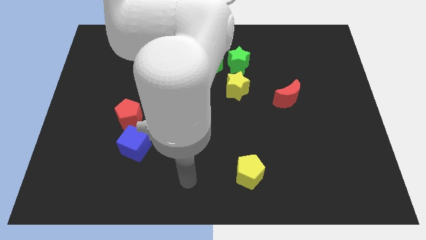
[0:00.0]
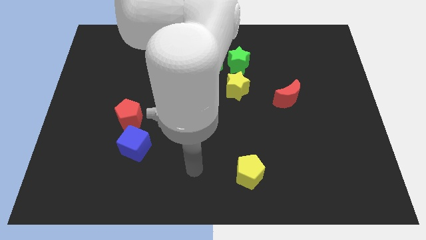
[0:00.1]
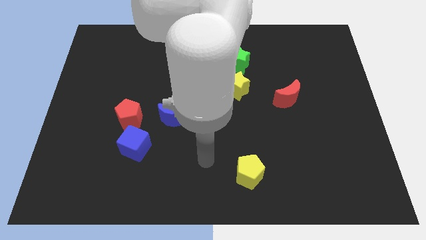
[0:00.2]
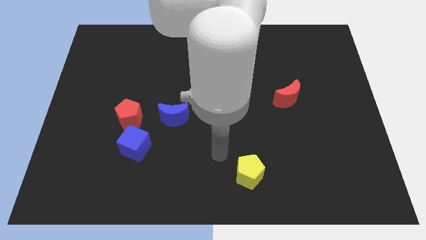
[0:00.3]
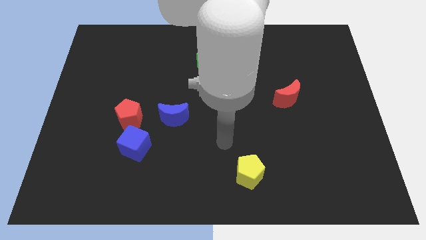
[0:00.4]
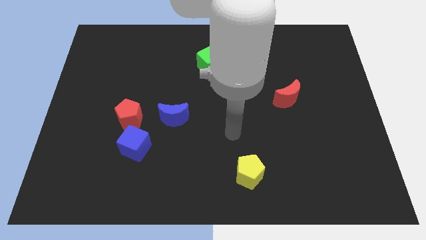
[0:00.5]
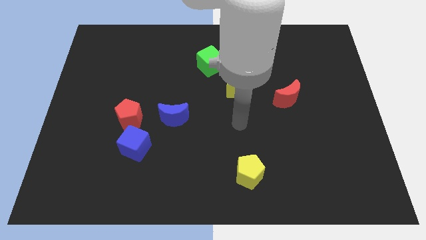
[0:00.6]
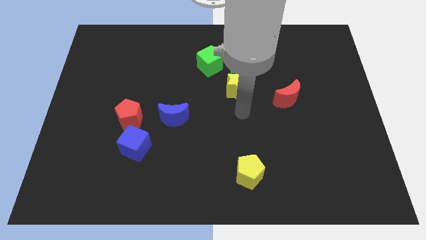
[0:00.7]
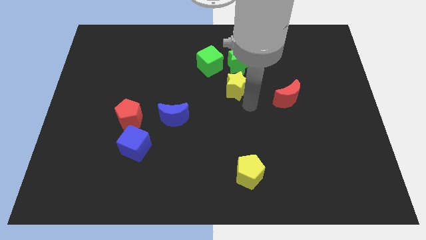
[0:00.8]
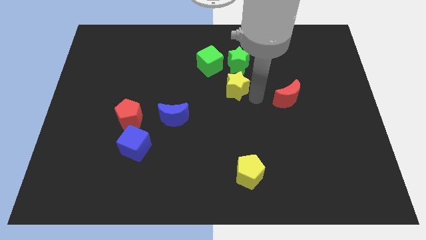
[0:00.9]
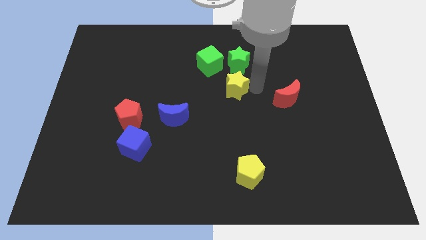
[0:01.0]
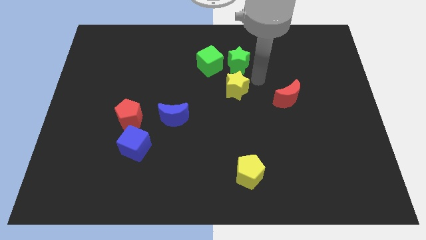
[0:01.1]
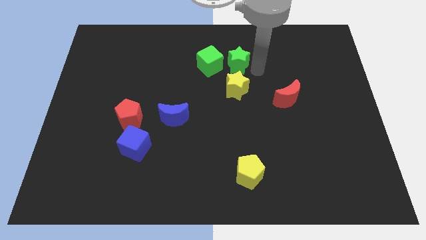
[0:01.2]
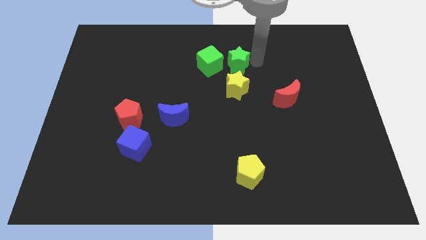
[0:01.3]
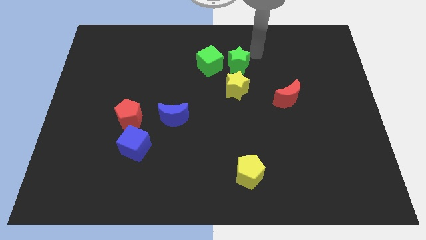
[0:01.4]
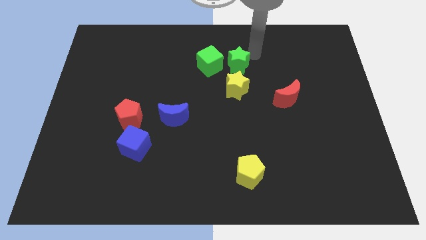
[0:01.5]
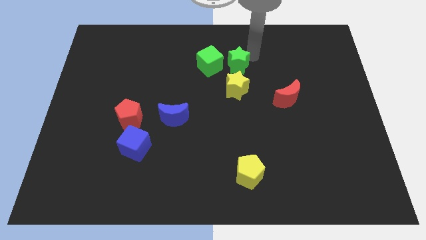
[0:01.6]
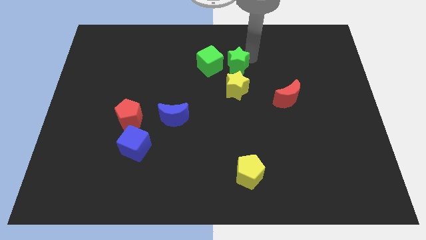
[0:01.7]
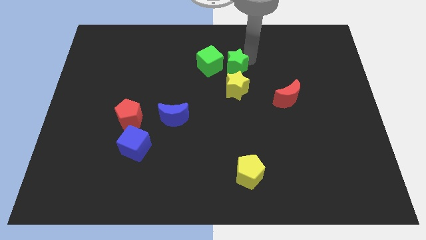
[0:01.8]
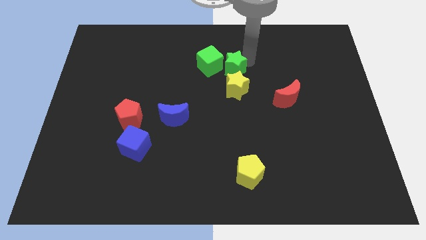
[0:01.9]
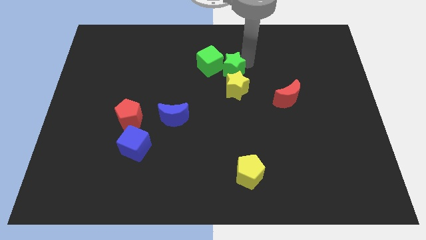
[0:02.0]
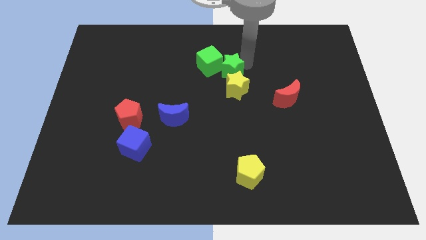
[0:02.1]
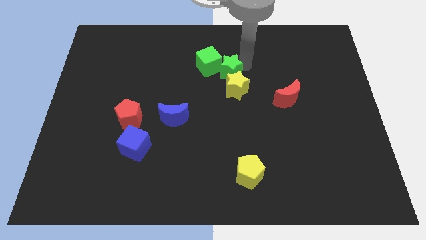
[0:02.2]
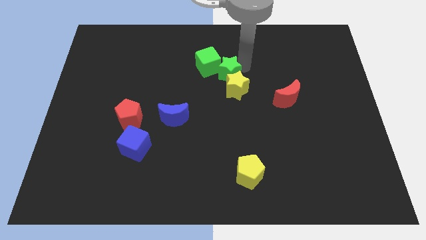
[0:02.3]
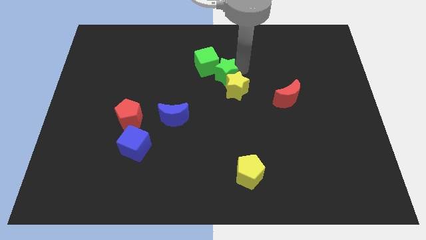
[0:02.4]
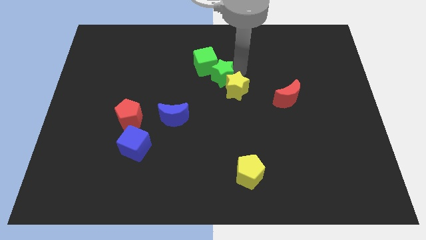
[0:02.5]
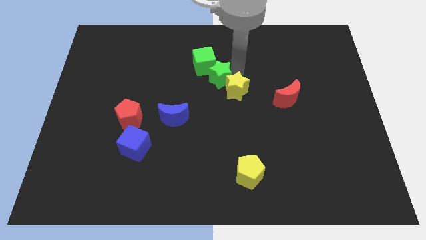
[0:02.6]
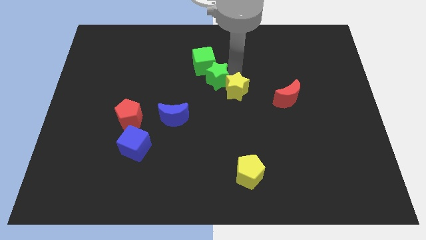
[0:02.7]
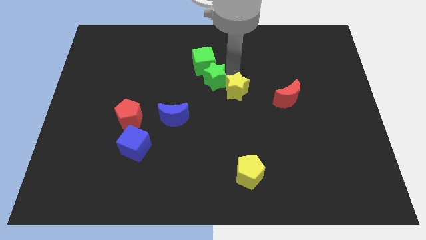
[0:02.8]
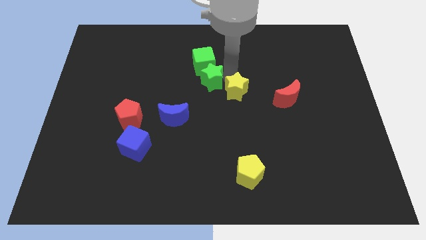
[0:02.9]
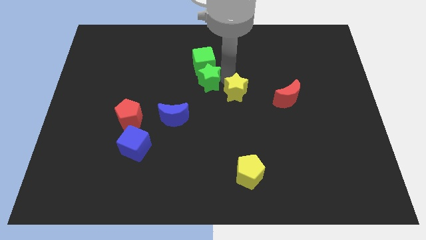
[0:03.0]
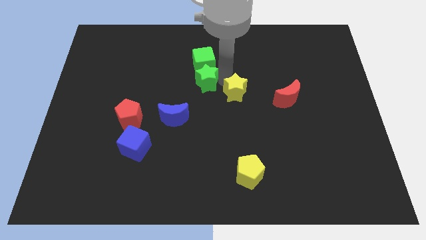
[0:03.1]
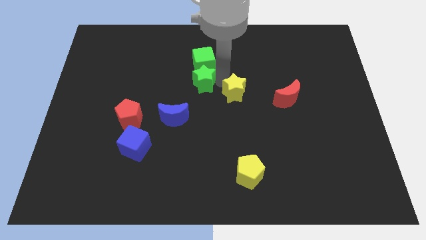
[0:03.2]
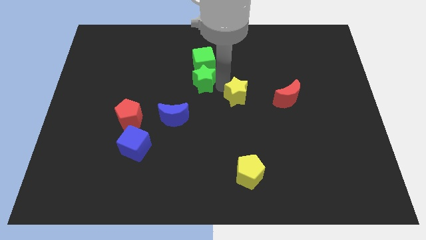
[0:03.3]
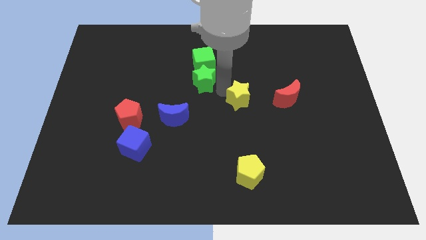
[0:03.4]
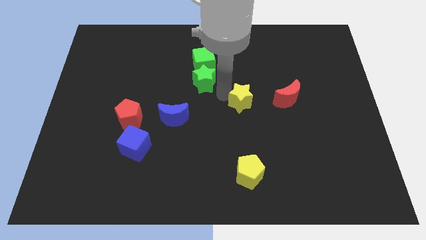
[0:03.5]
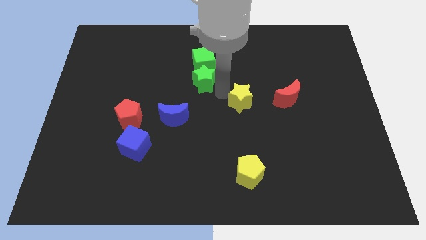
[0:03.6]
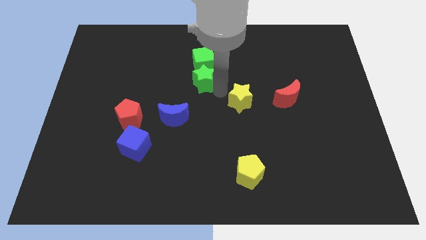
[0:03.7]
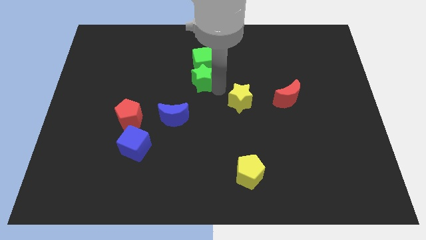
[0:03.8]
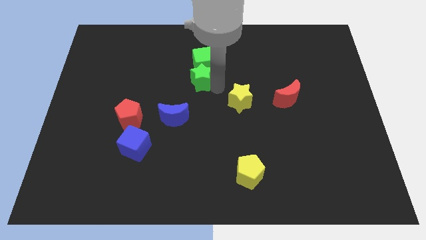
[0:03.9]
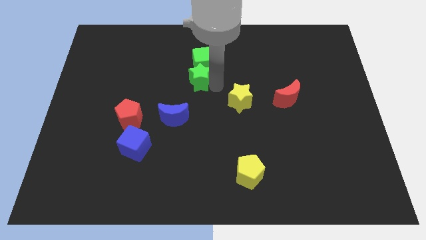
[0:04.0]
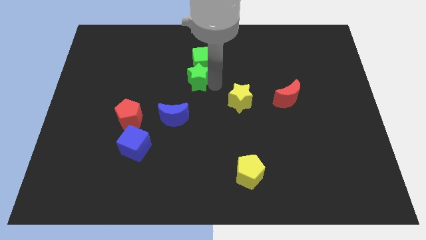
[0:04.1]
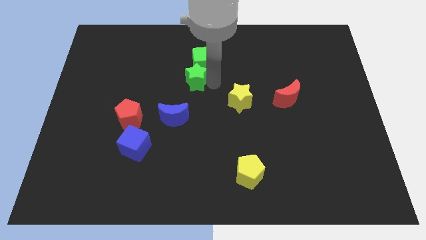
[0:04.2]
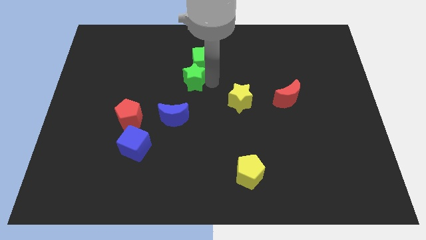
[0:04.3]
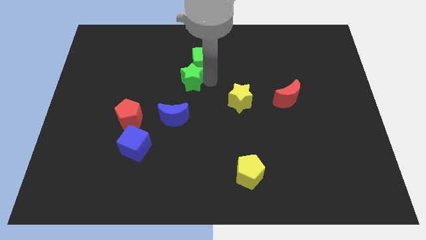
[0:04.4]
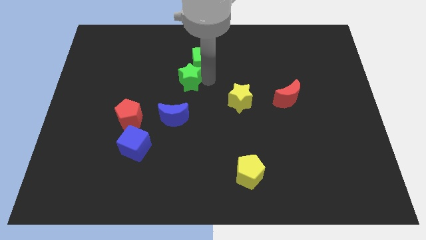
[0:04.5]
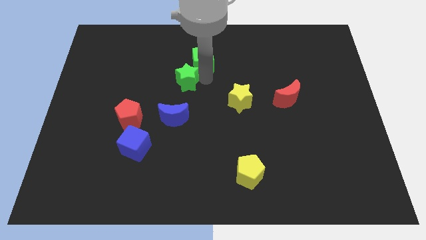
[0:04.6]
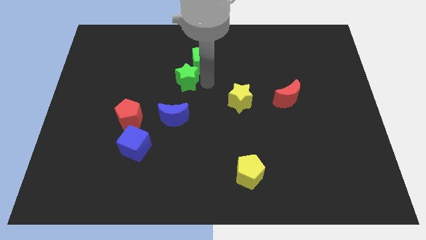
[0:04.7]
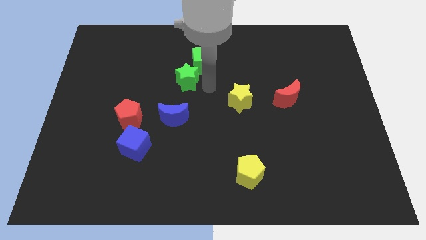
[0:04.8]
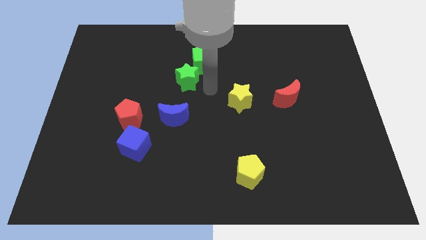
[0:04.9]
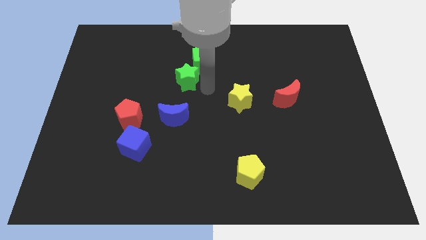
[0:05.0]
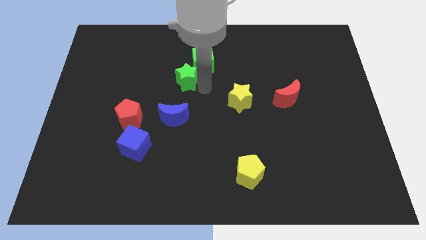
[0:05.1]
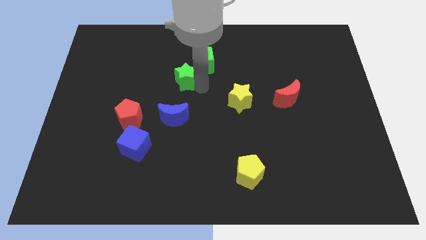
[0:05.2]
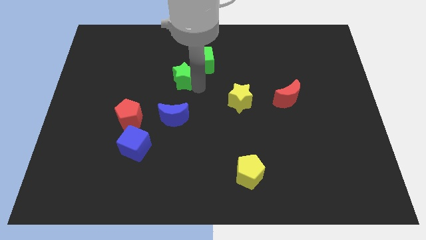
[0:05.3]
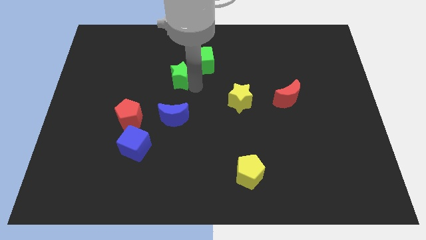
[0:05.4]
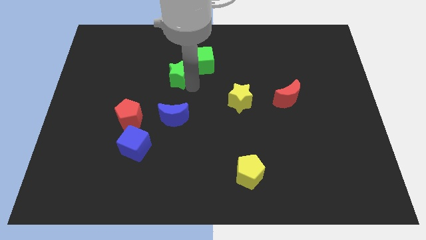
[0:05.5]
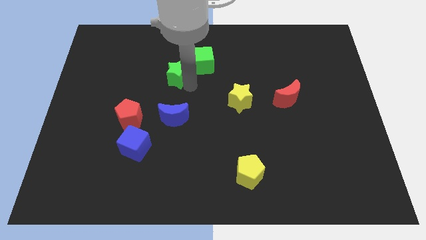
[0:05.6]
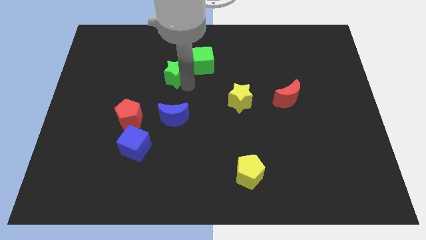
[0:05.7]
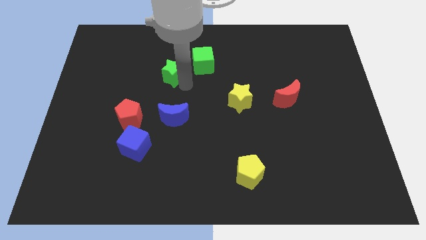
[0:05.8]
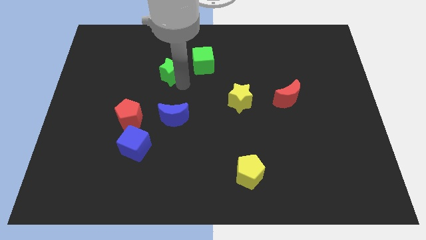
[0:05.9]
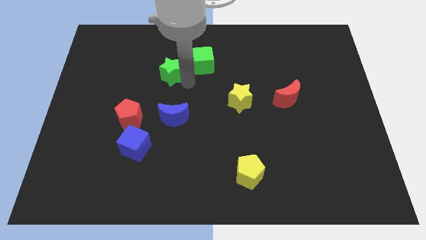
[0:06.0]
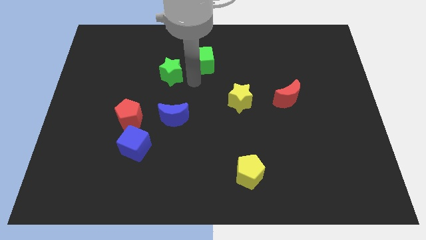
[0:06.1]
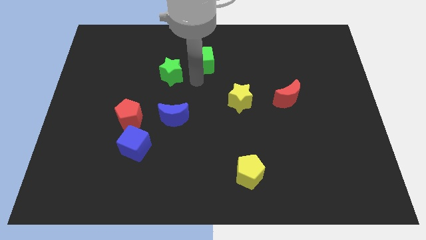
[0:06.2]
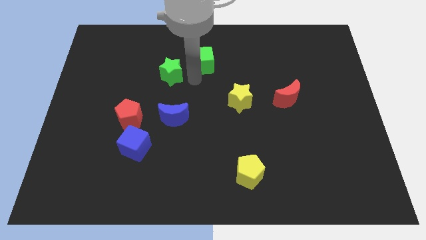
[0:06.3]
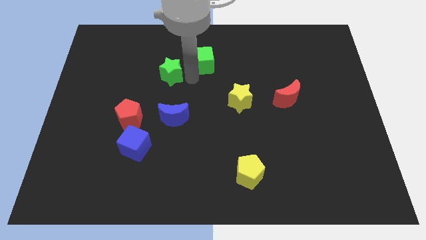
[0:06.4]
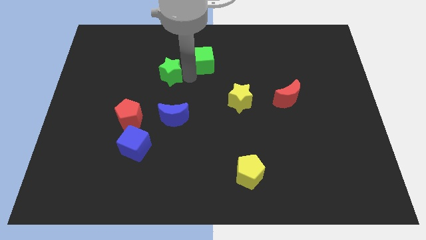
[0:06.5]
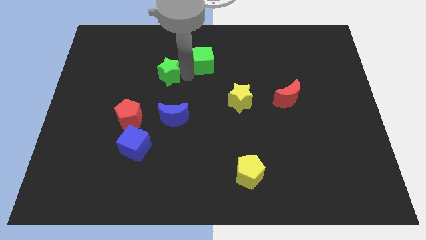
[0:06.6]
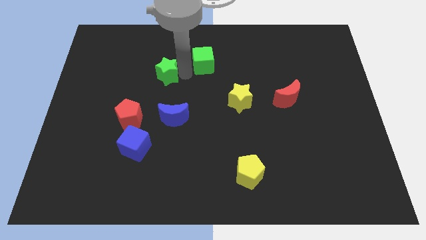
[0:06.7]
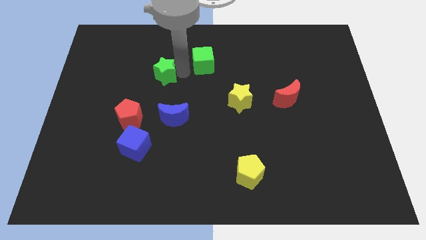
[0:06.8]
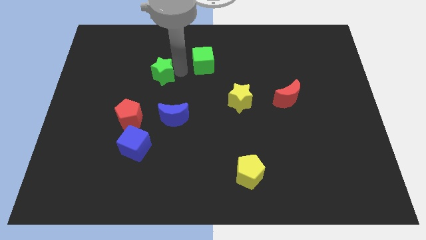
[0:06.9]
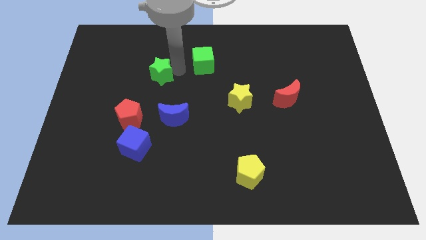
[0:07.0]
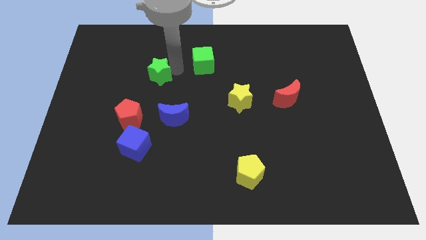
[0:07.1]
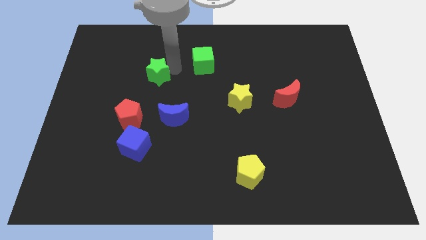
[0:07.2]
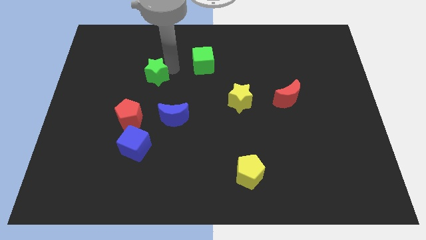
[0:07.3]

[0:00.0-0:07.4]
push the green star to the left

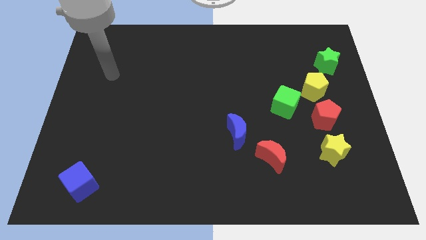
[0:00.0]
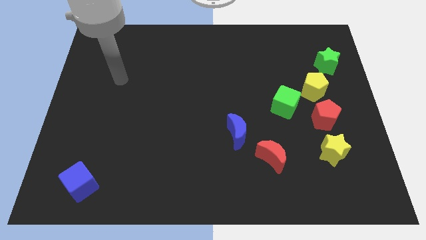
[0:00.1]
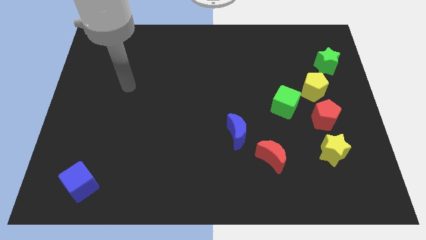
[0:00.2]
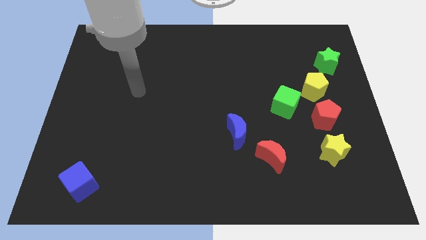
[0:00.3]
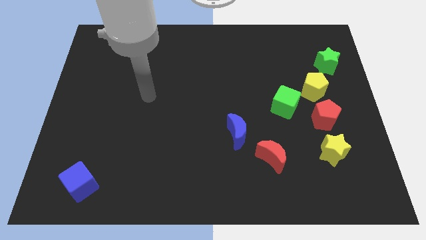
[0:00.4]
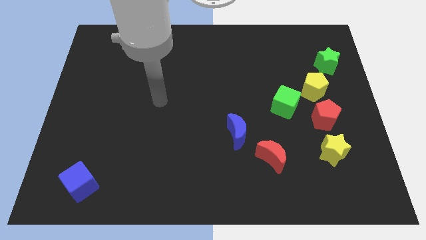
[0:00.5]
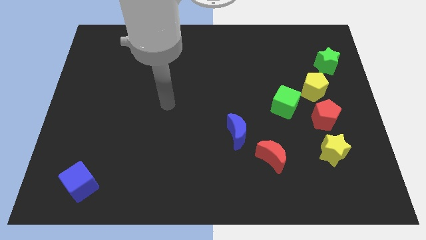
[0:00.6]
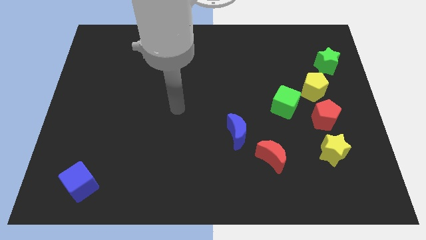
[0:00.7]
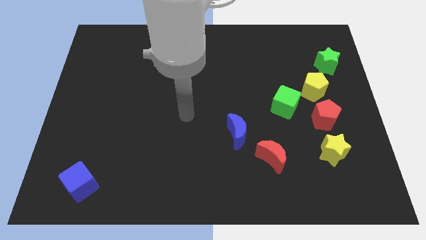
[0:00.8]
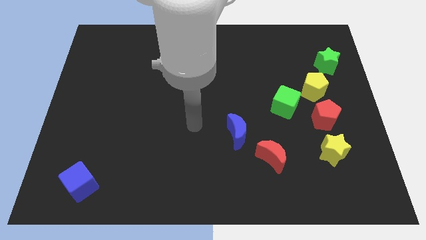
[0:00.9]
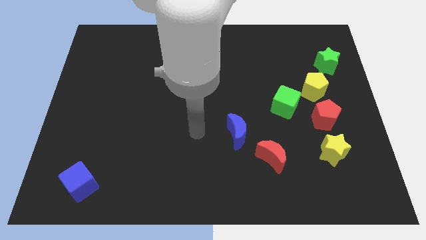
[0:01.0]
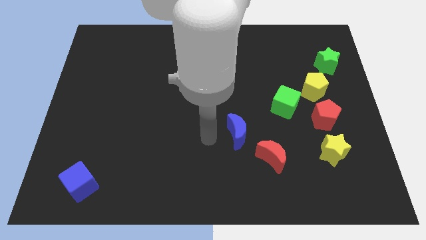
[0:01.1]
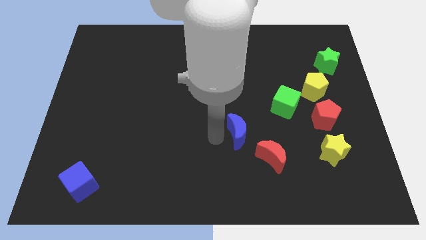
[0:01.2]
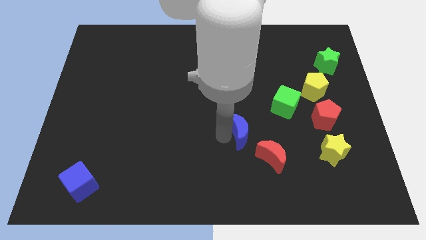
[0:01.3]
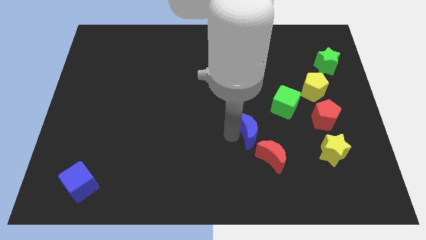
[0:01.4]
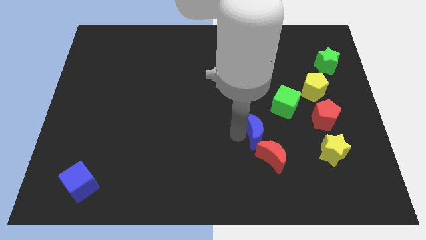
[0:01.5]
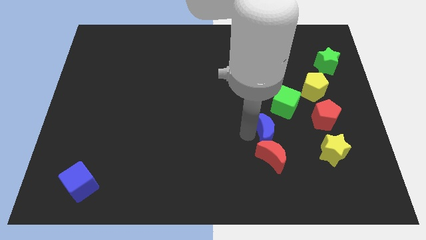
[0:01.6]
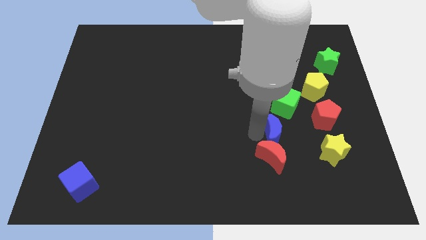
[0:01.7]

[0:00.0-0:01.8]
slightly move the blue moon to the right
